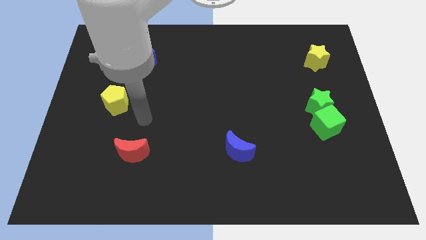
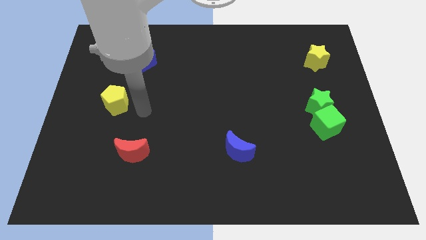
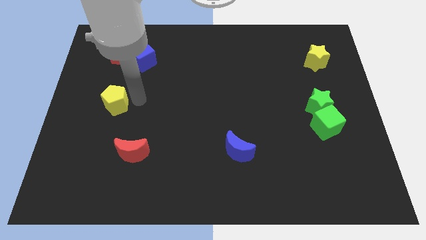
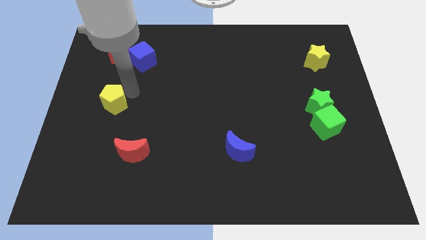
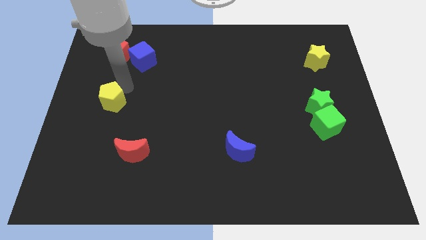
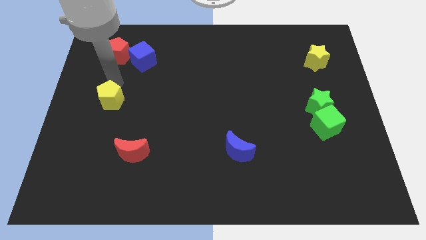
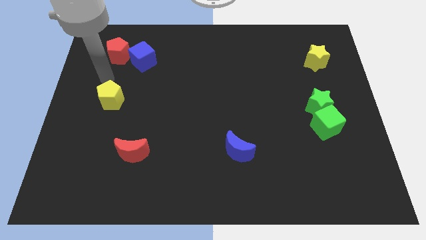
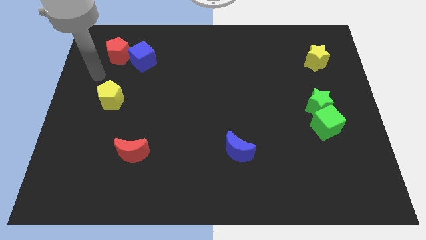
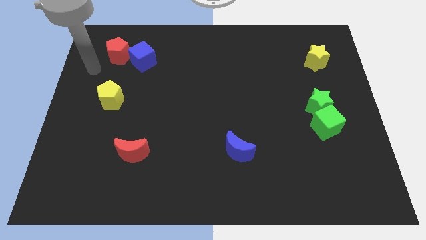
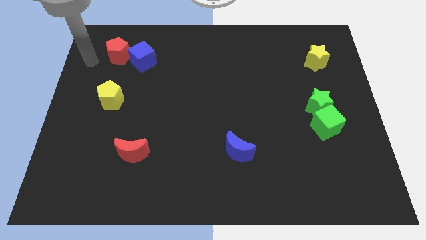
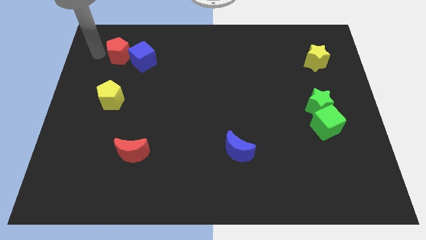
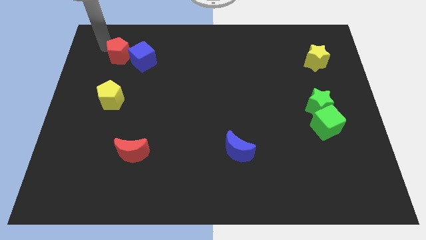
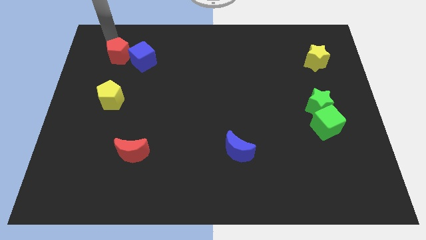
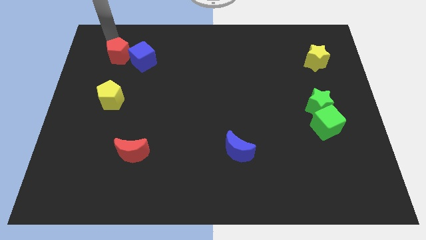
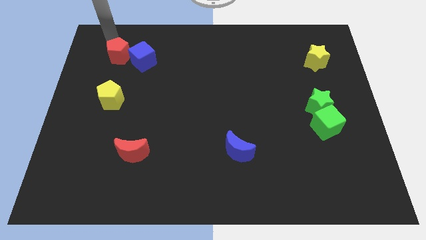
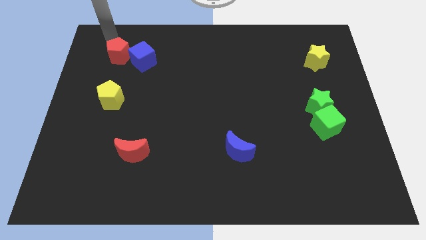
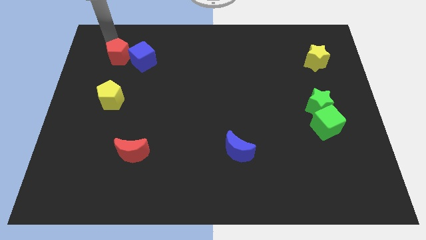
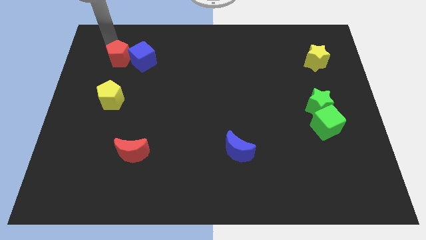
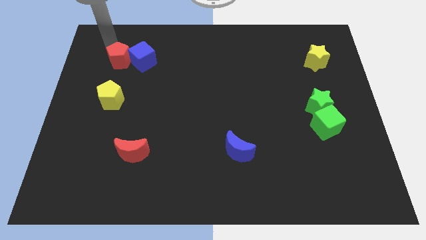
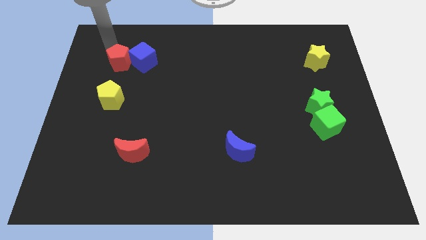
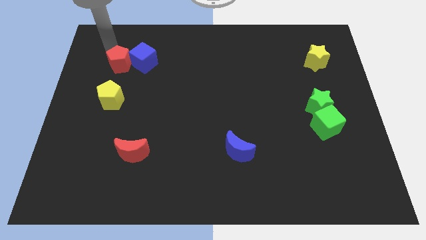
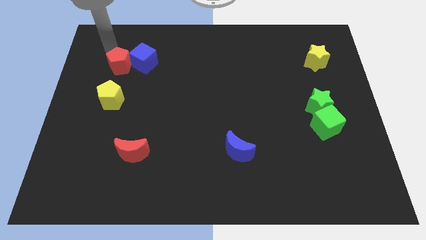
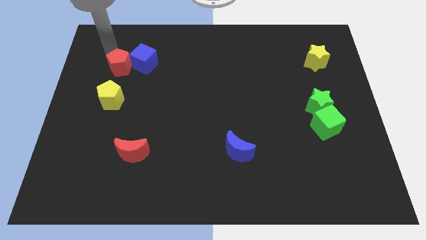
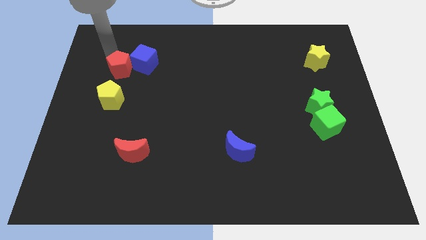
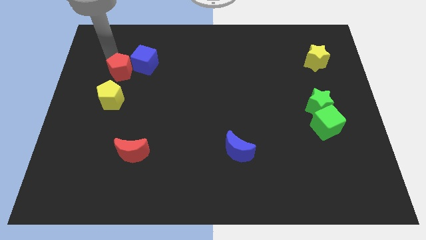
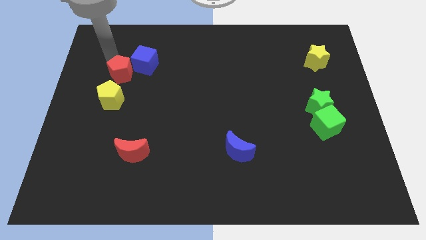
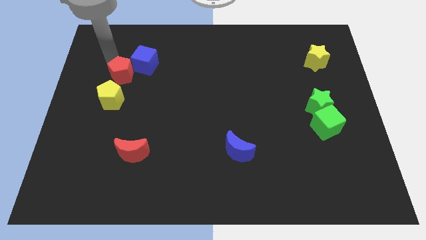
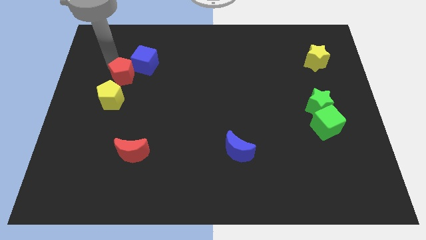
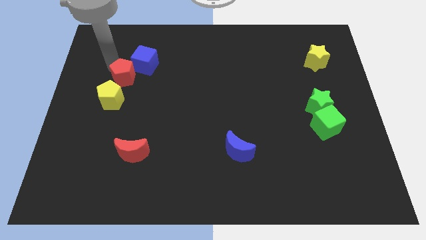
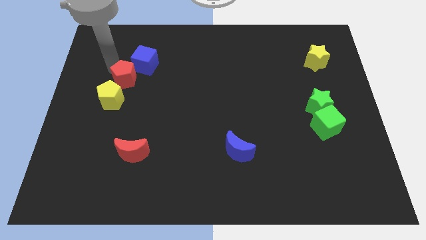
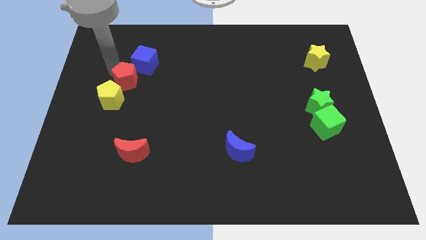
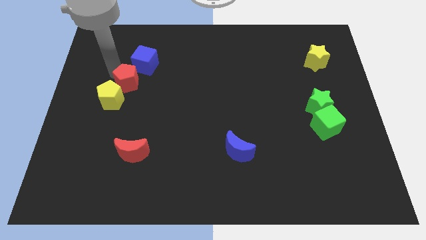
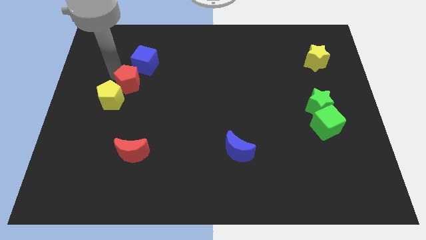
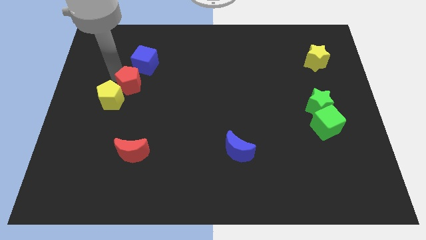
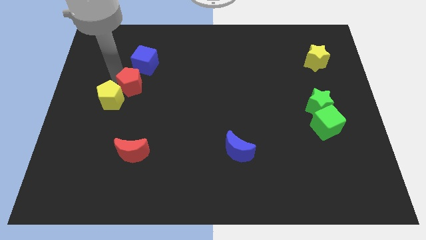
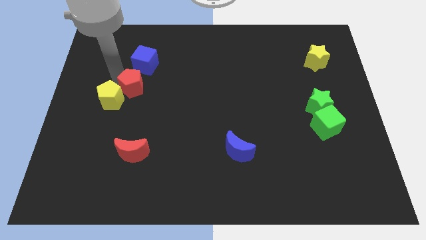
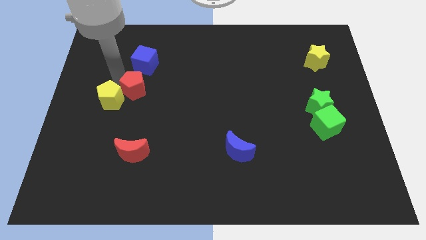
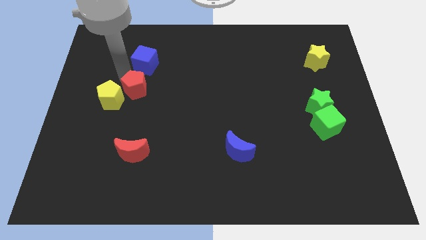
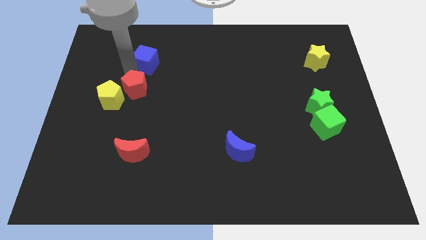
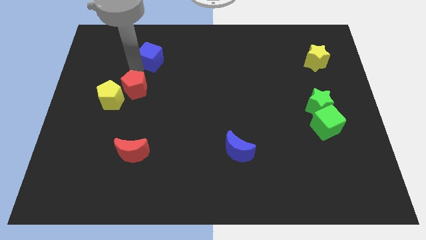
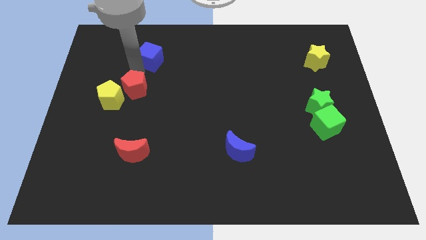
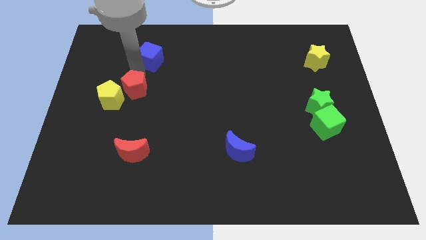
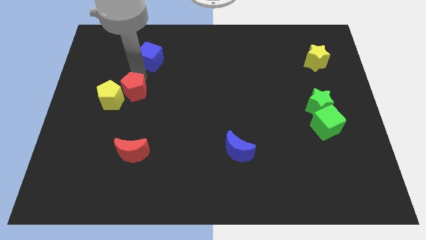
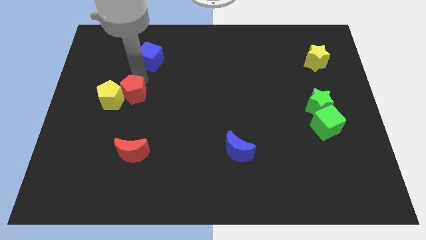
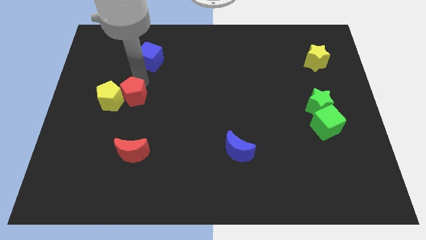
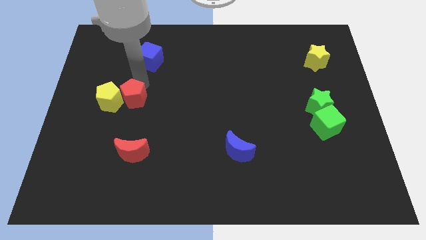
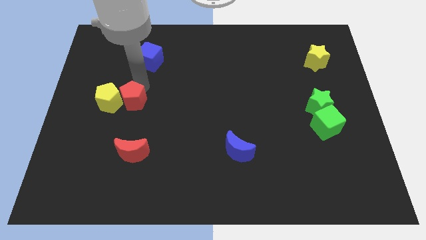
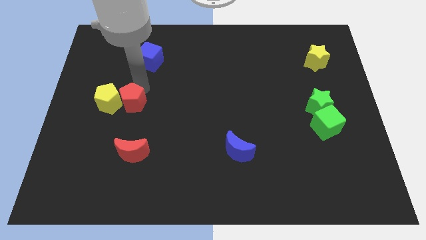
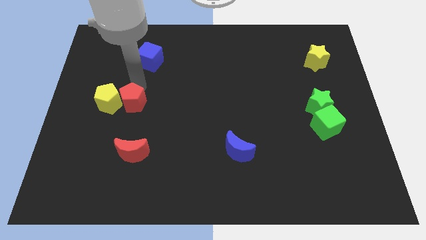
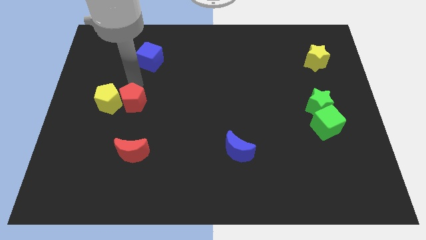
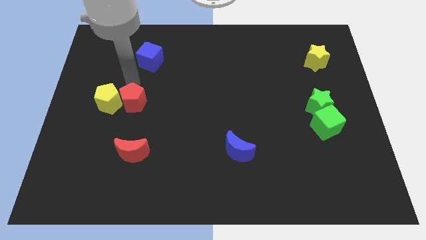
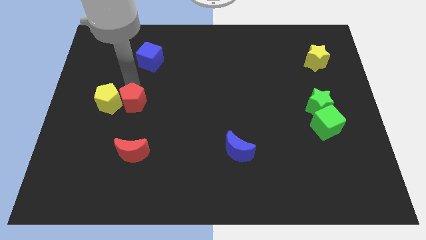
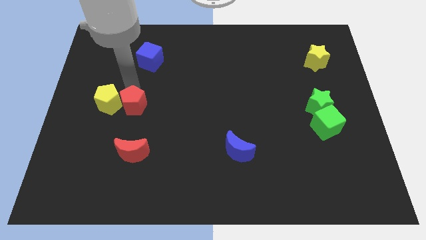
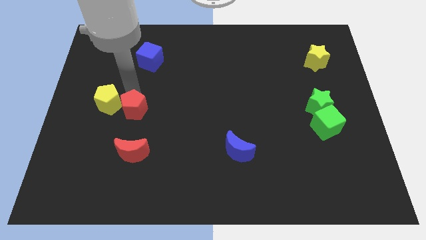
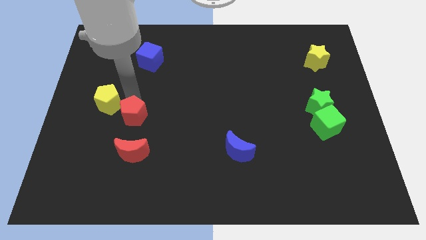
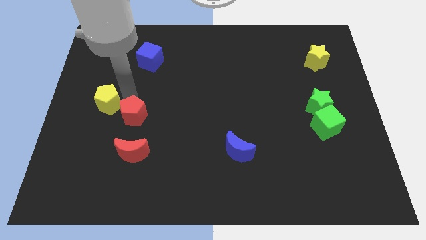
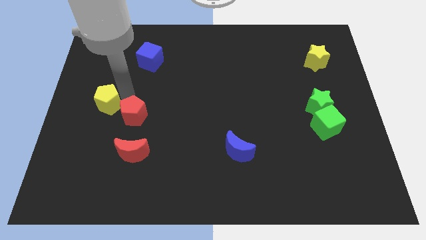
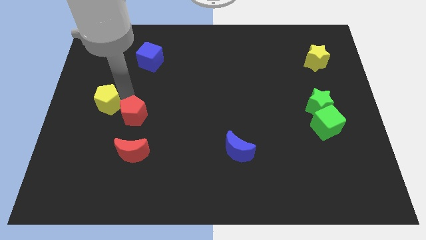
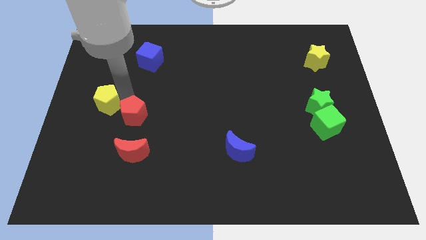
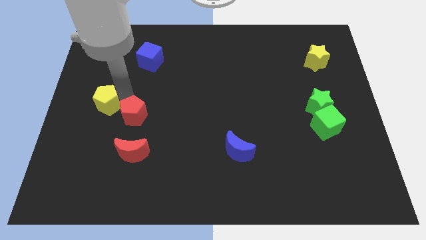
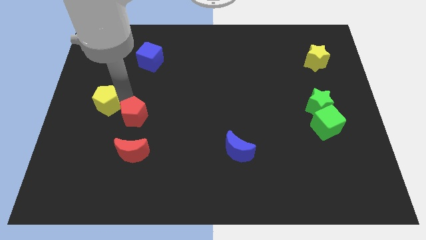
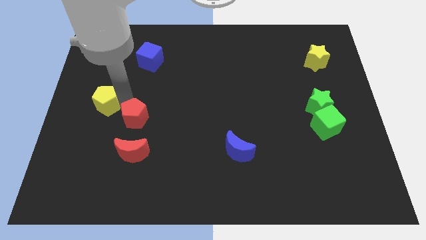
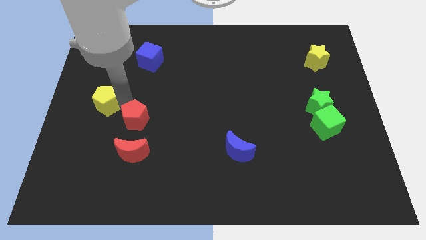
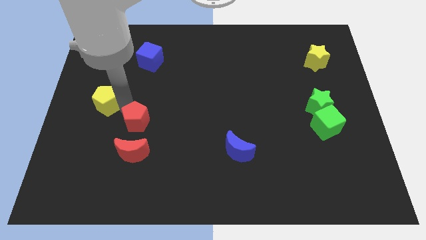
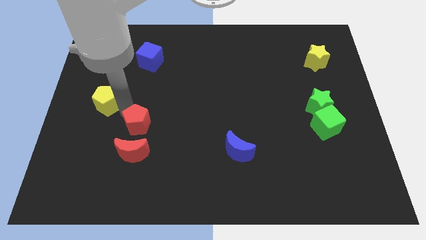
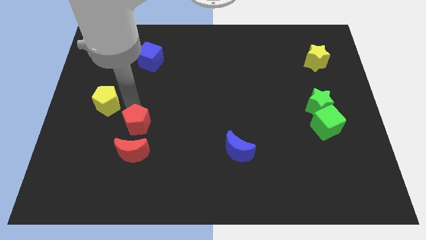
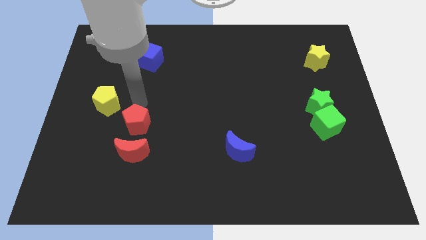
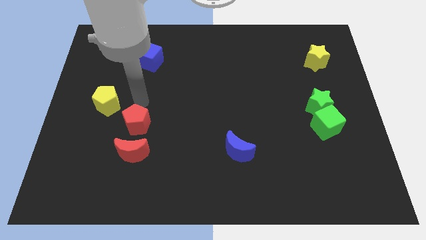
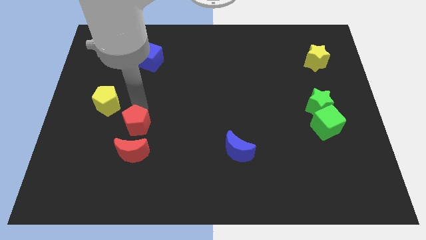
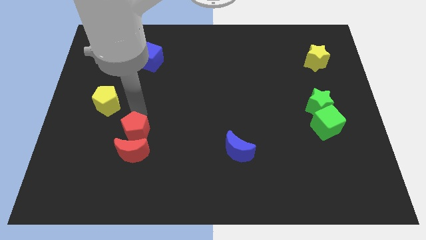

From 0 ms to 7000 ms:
put the red pentagon to the red moon

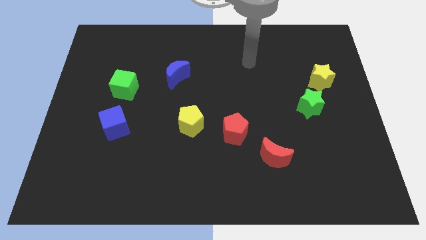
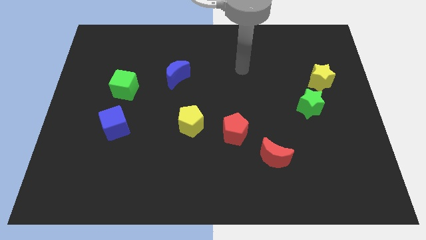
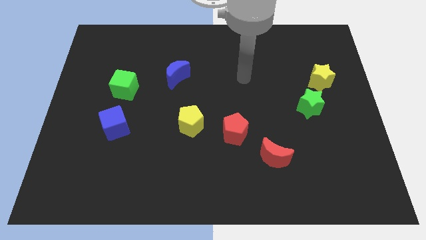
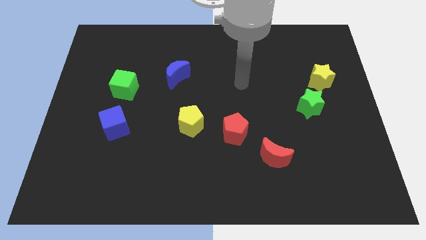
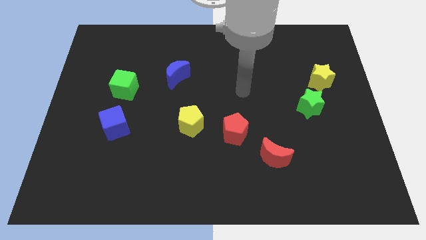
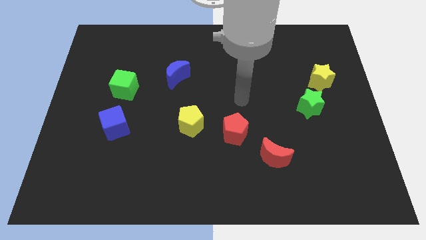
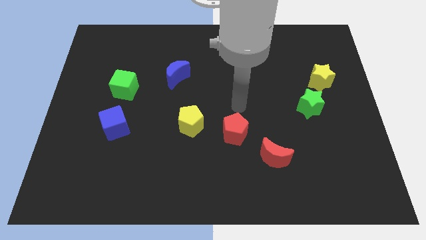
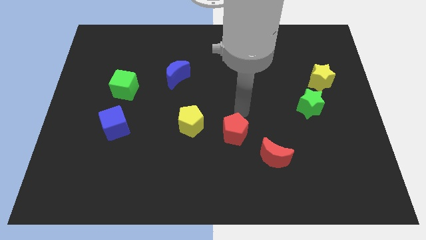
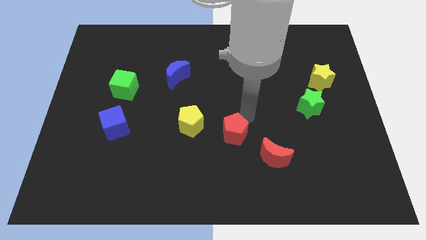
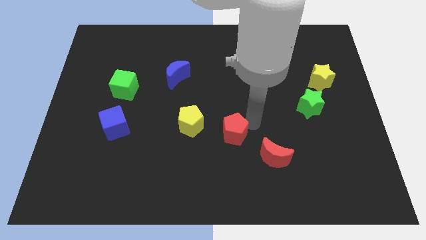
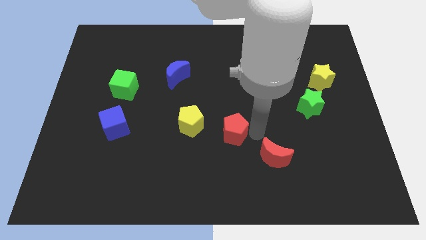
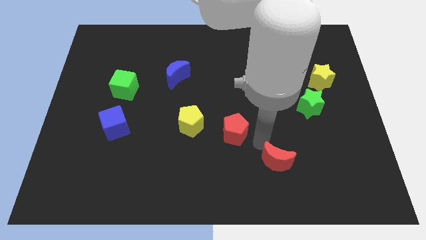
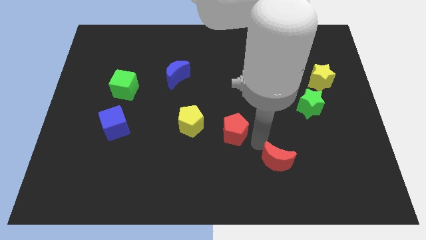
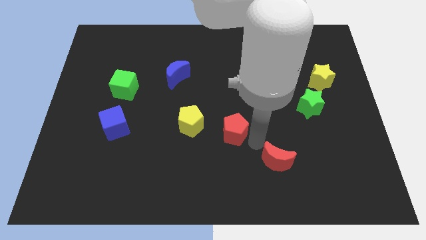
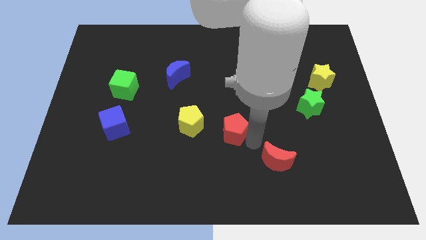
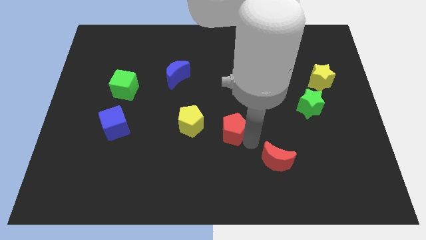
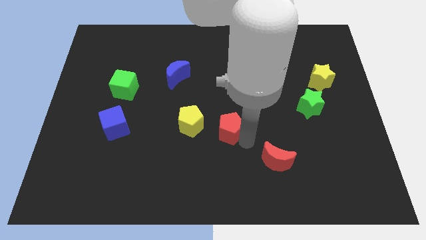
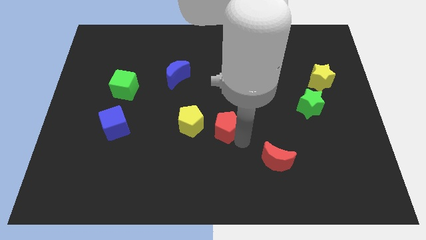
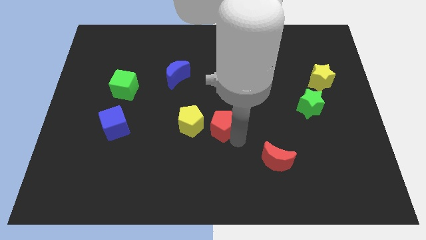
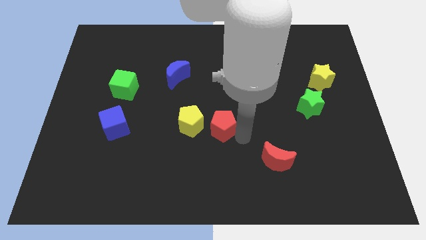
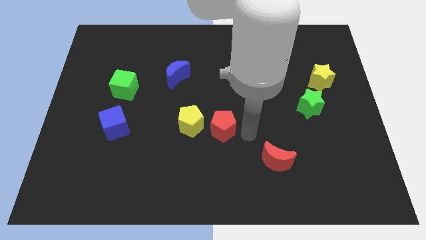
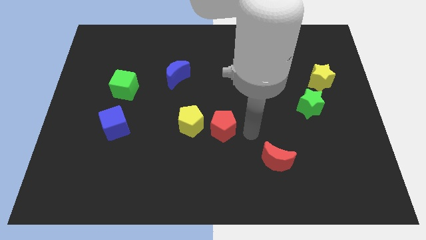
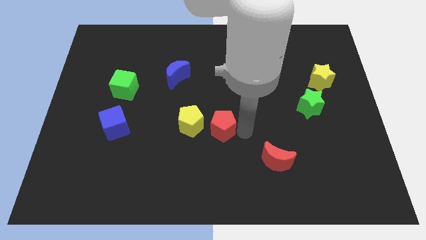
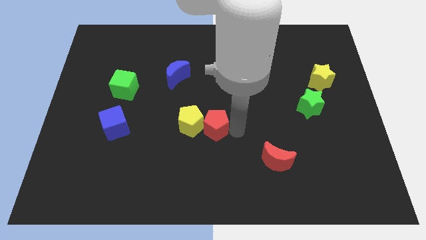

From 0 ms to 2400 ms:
slide the red pentagon towards the yellow pentagon
